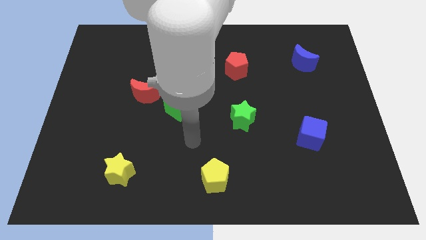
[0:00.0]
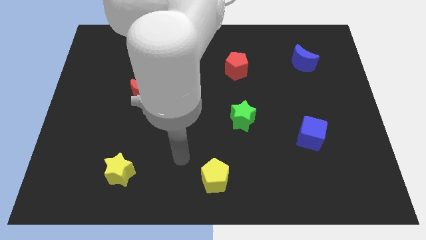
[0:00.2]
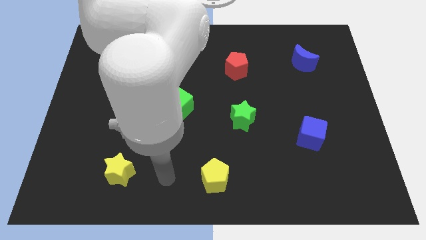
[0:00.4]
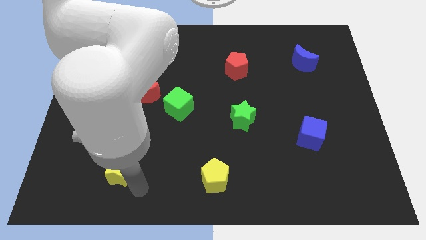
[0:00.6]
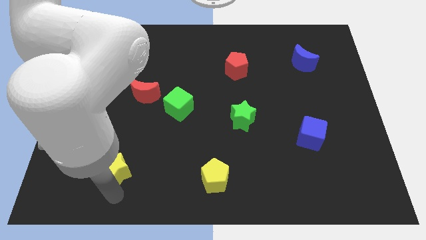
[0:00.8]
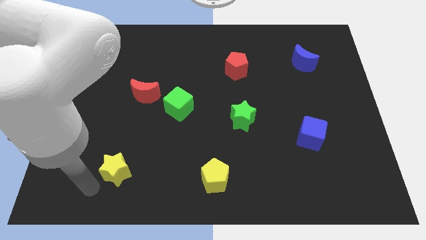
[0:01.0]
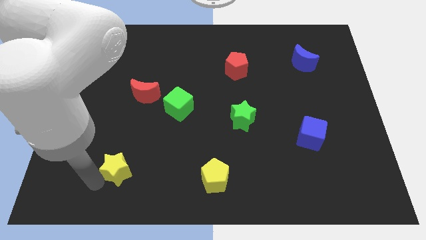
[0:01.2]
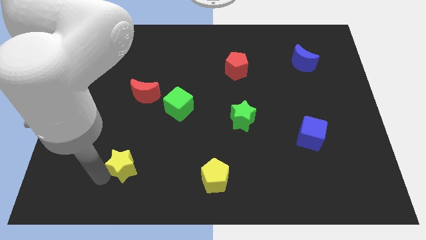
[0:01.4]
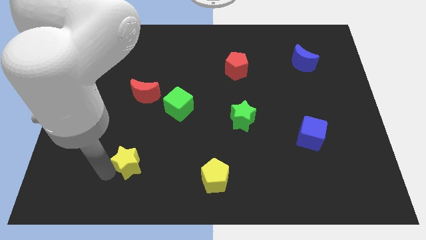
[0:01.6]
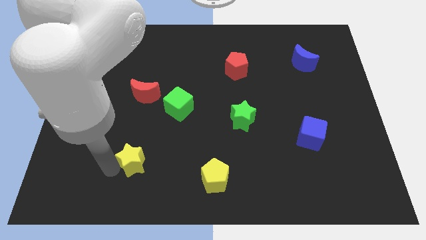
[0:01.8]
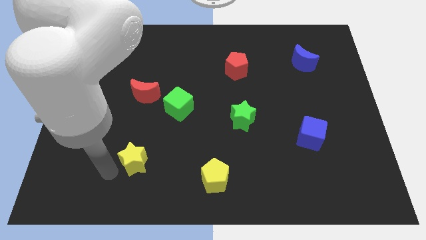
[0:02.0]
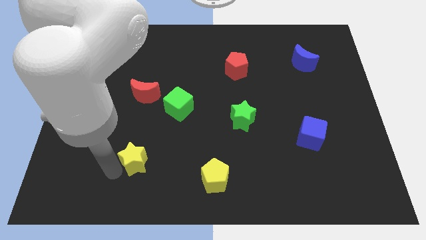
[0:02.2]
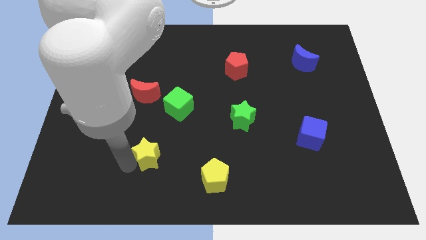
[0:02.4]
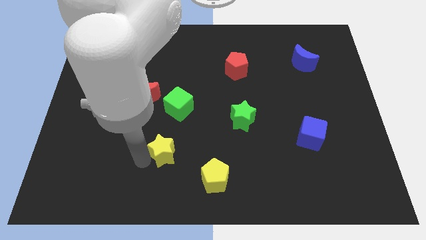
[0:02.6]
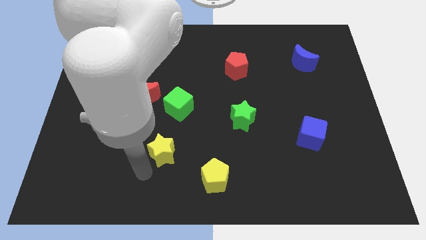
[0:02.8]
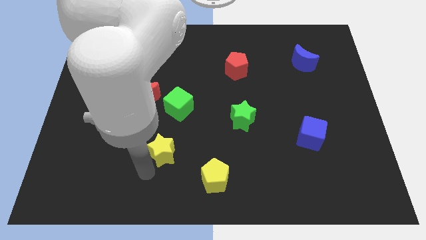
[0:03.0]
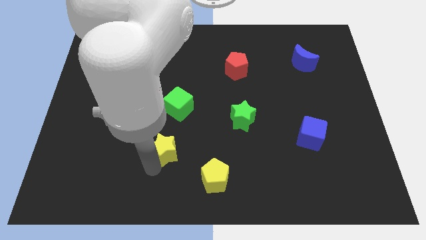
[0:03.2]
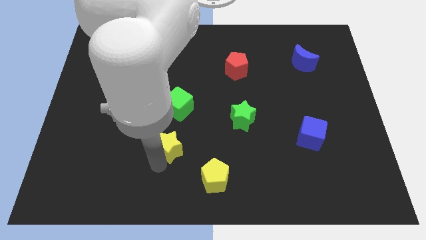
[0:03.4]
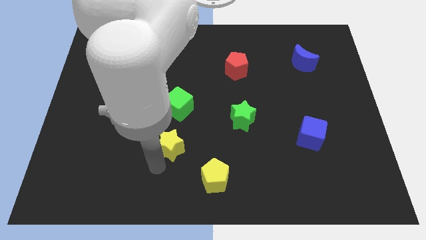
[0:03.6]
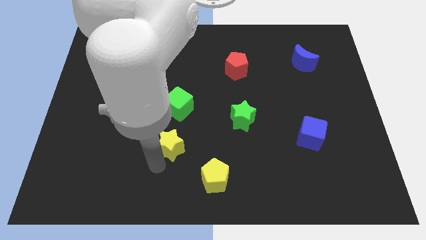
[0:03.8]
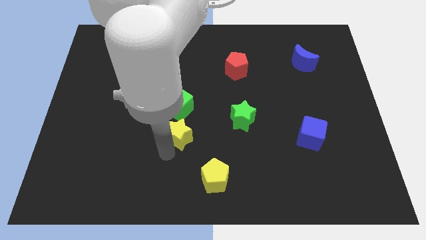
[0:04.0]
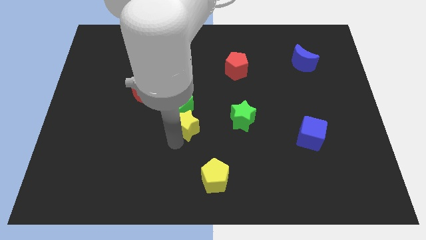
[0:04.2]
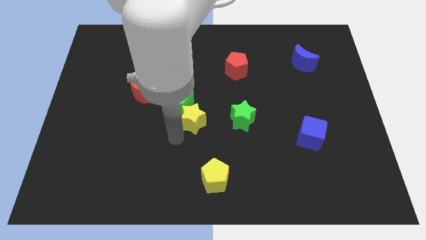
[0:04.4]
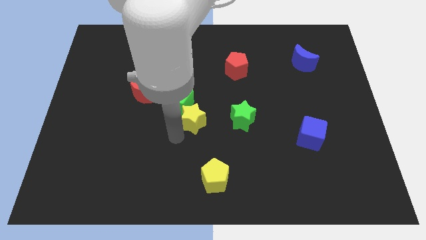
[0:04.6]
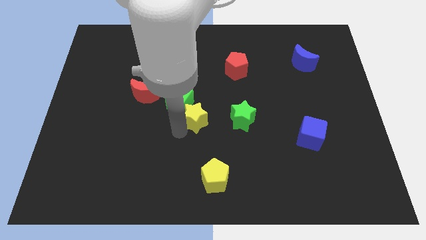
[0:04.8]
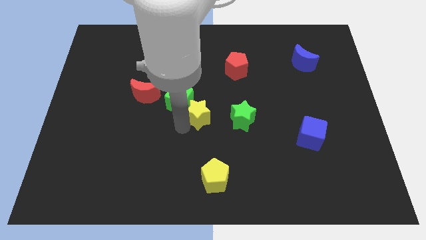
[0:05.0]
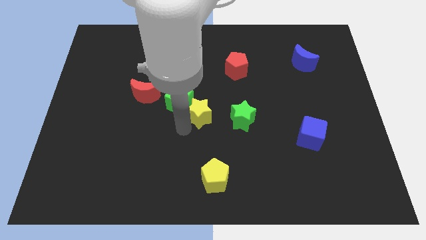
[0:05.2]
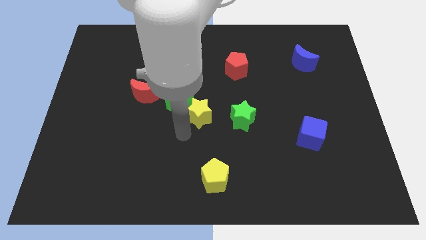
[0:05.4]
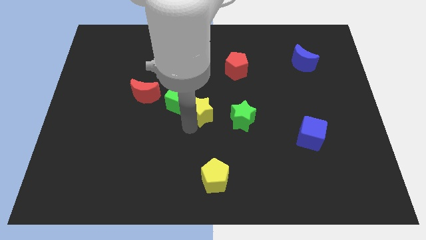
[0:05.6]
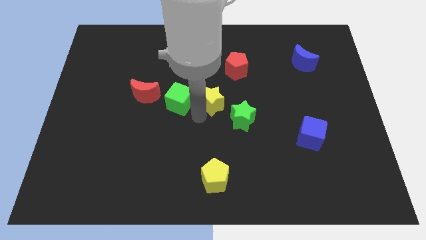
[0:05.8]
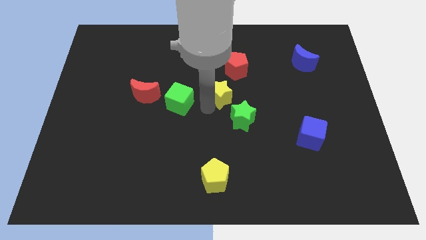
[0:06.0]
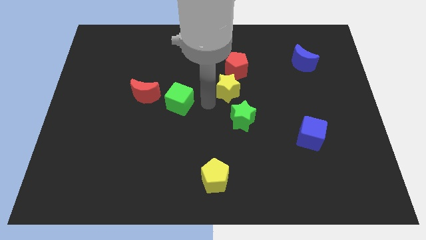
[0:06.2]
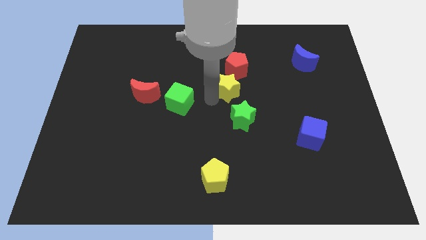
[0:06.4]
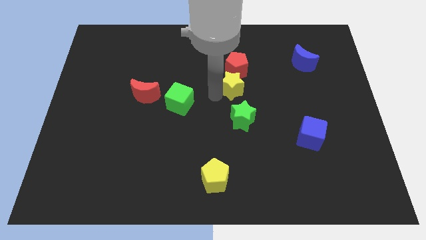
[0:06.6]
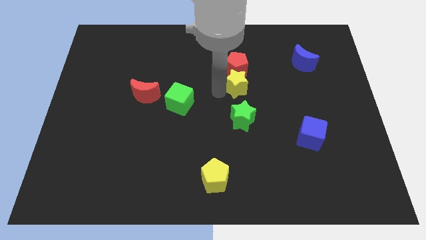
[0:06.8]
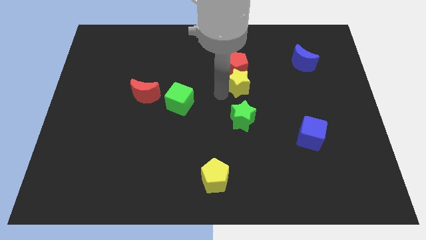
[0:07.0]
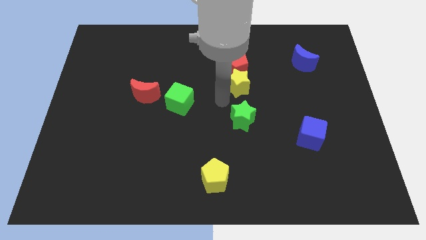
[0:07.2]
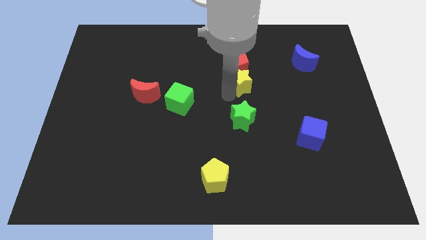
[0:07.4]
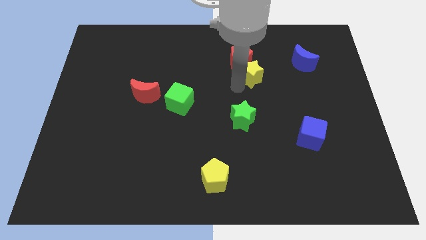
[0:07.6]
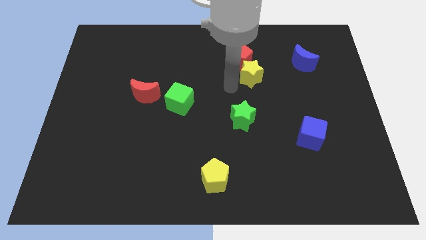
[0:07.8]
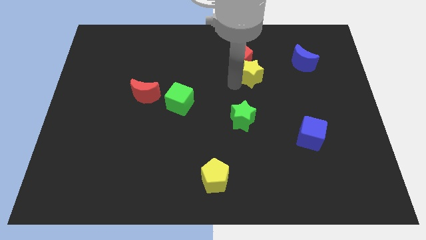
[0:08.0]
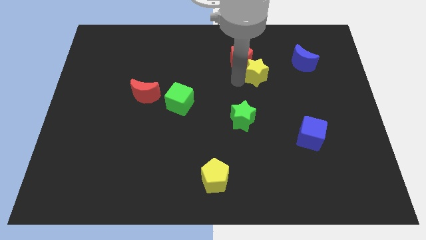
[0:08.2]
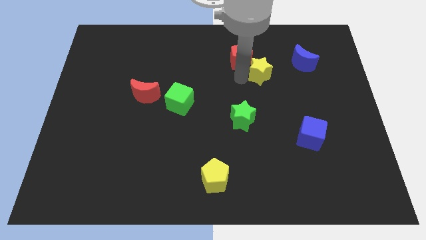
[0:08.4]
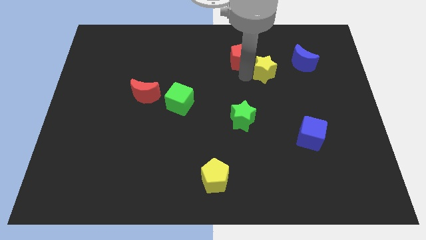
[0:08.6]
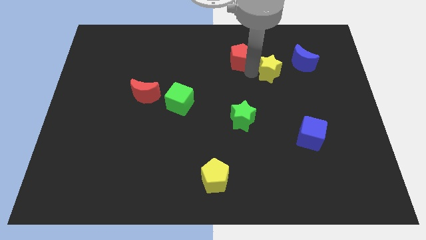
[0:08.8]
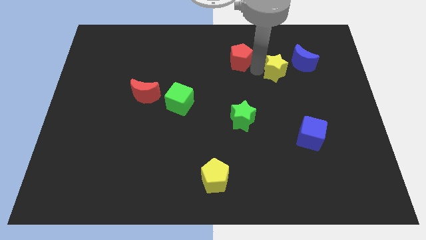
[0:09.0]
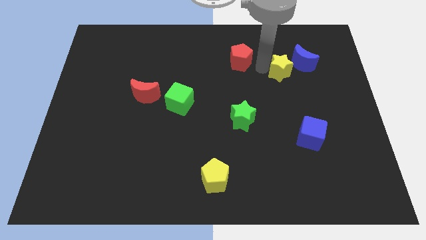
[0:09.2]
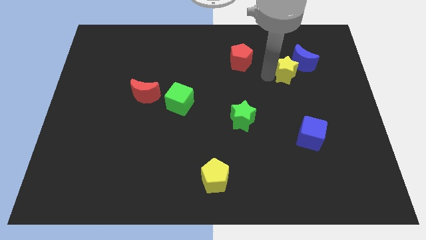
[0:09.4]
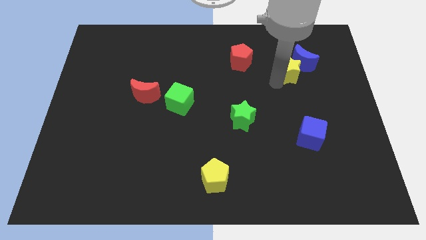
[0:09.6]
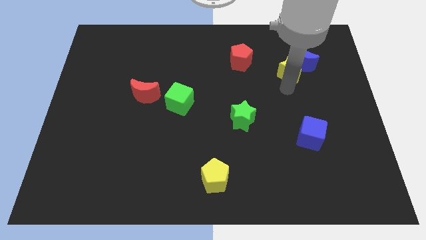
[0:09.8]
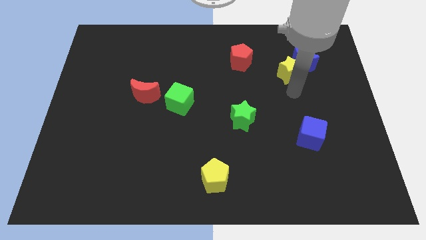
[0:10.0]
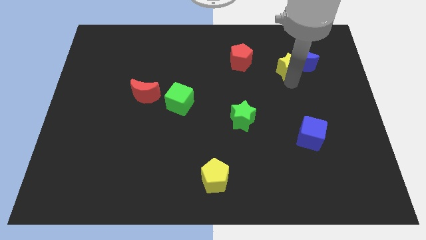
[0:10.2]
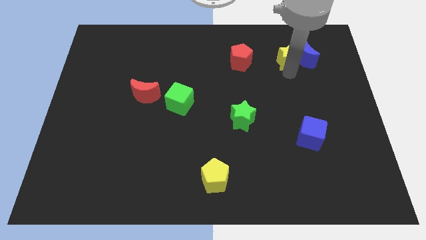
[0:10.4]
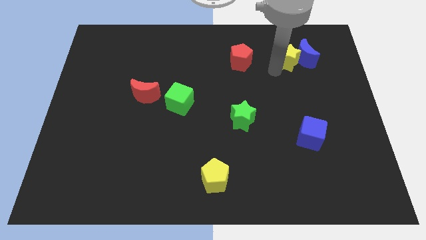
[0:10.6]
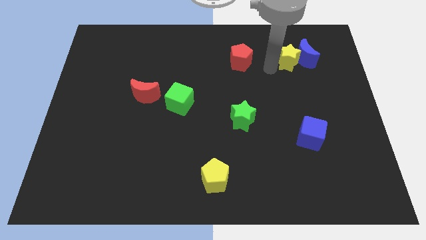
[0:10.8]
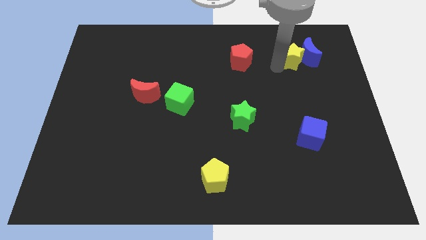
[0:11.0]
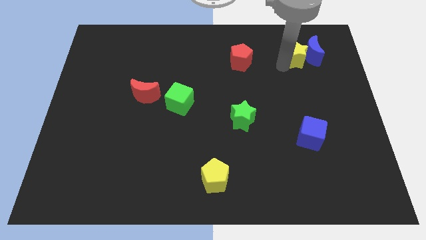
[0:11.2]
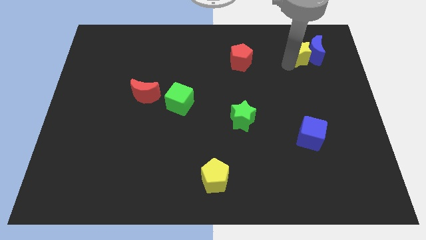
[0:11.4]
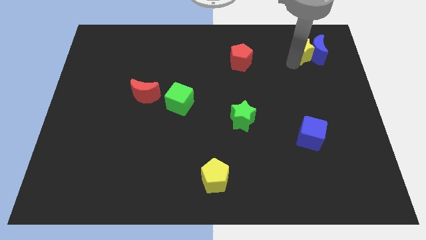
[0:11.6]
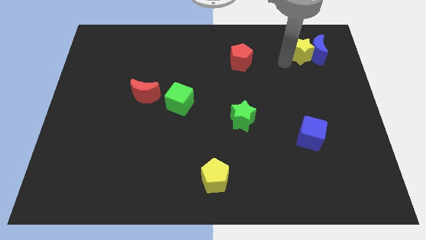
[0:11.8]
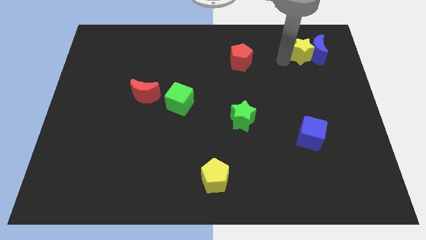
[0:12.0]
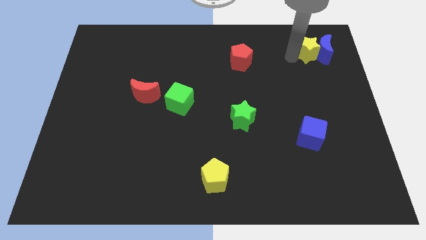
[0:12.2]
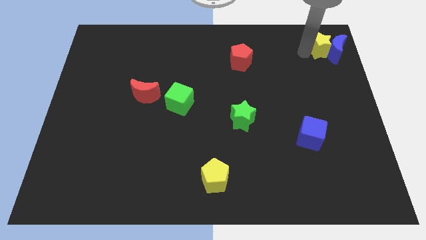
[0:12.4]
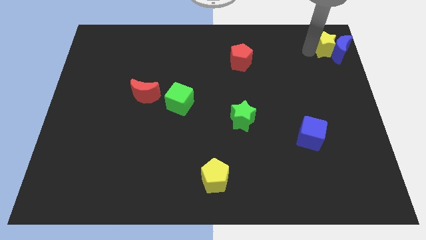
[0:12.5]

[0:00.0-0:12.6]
move the yellow star to the top right
